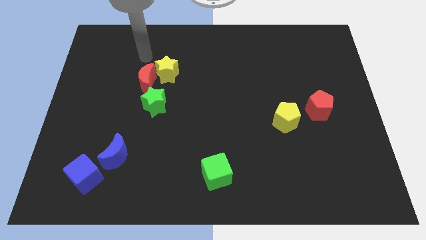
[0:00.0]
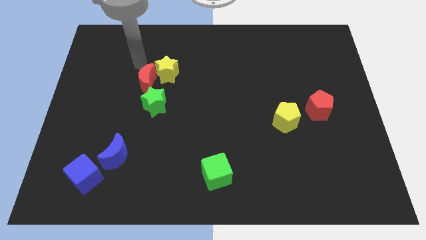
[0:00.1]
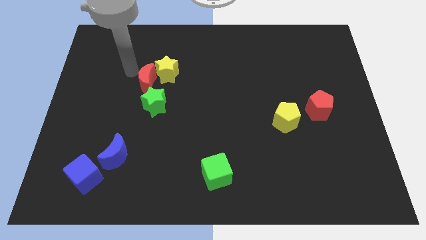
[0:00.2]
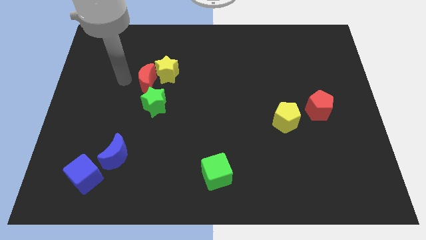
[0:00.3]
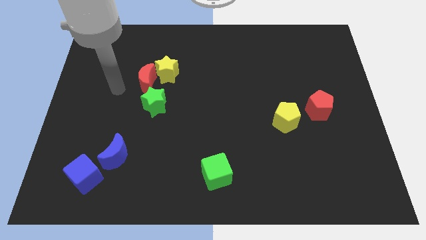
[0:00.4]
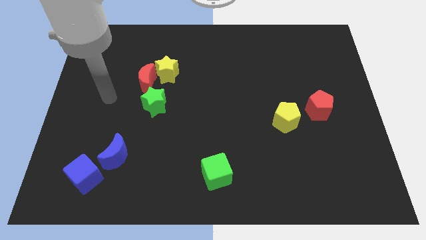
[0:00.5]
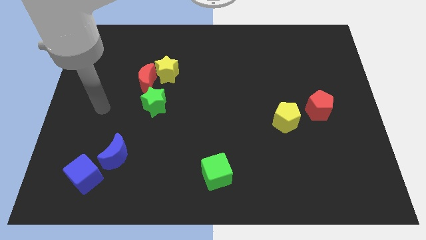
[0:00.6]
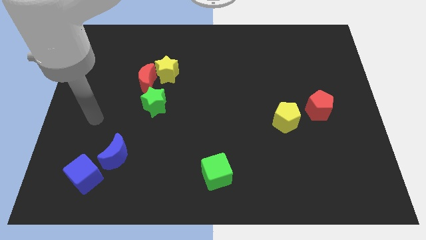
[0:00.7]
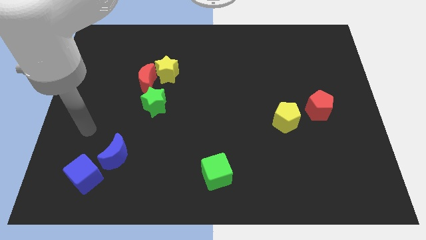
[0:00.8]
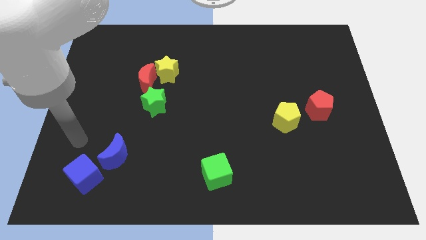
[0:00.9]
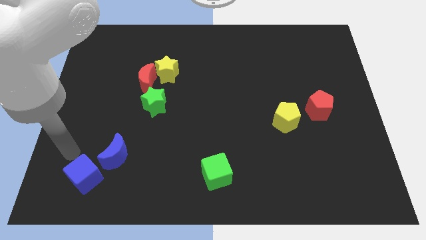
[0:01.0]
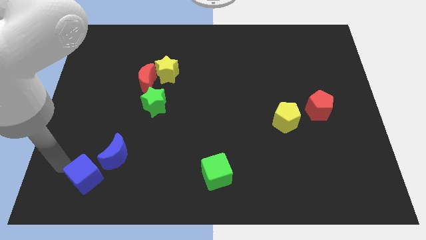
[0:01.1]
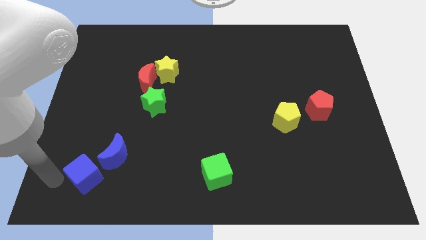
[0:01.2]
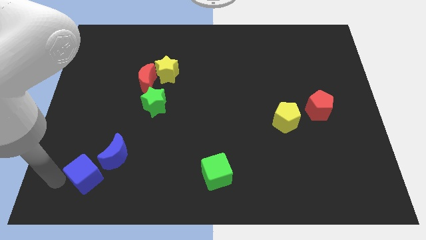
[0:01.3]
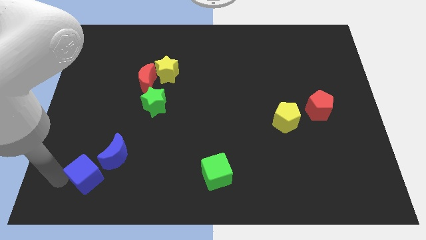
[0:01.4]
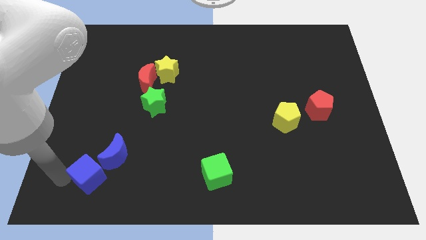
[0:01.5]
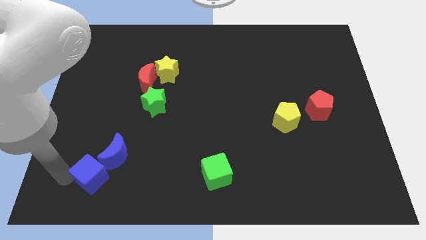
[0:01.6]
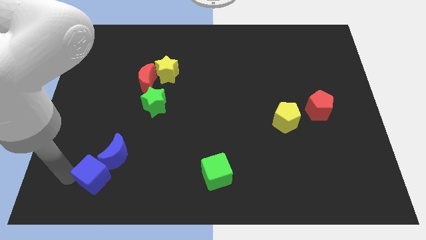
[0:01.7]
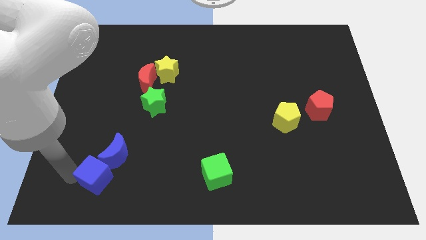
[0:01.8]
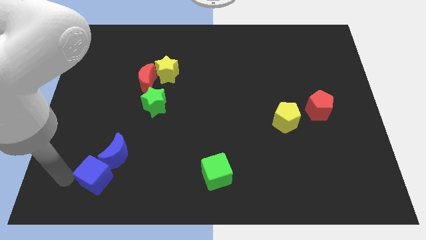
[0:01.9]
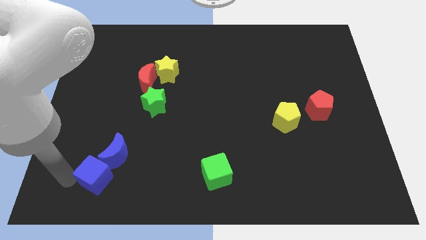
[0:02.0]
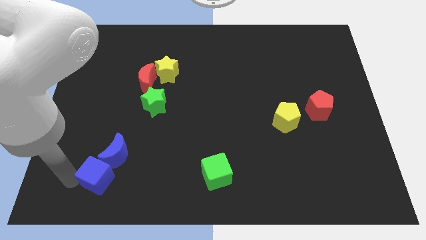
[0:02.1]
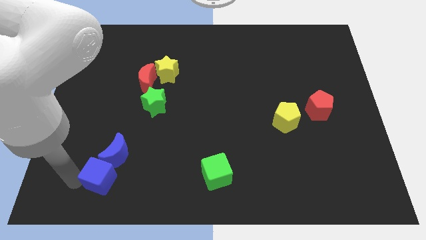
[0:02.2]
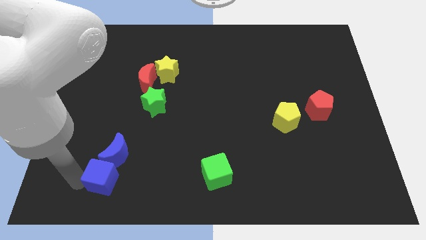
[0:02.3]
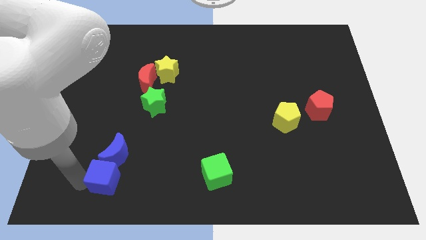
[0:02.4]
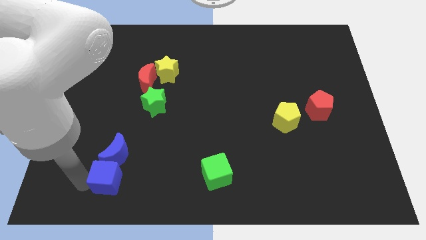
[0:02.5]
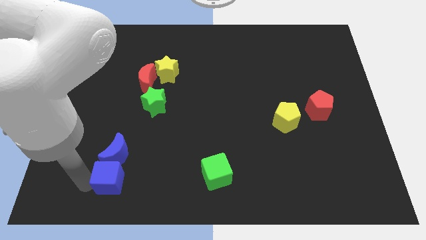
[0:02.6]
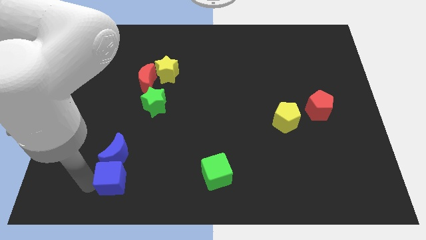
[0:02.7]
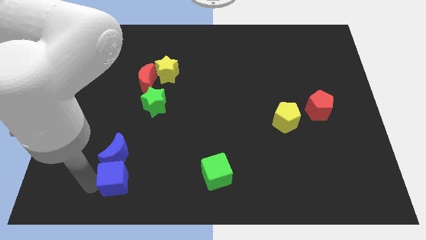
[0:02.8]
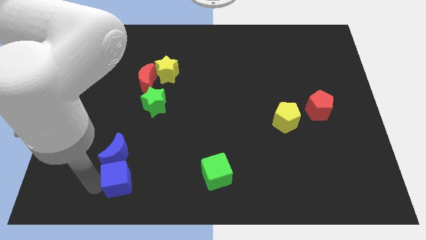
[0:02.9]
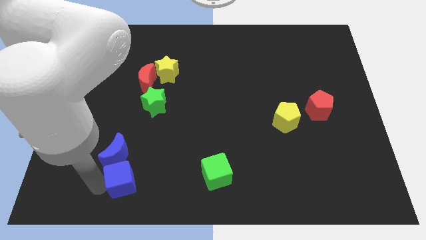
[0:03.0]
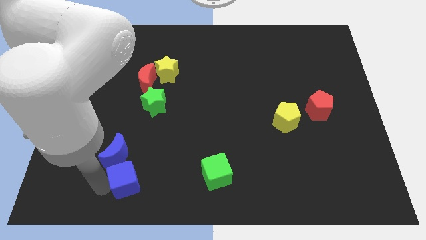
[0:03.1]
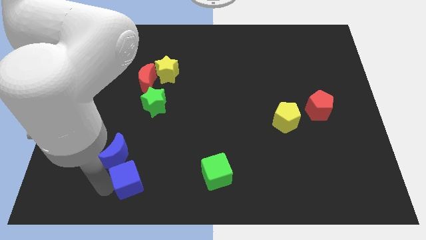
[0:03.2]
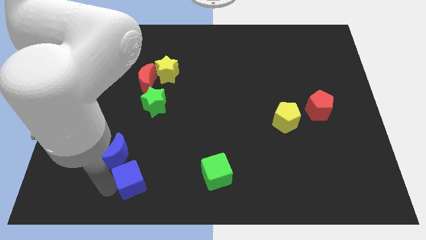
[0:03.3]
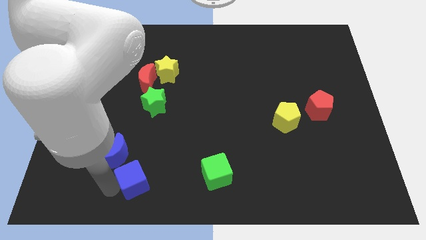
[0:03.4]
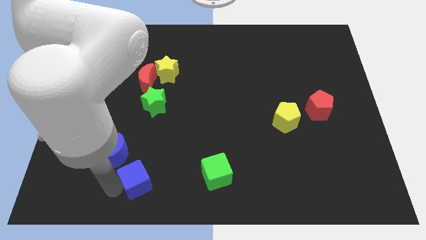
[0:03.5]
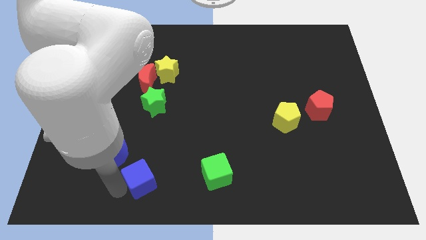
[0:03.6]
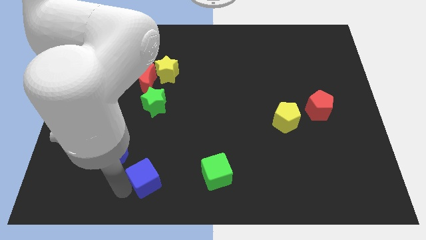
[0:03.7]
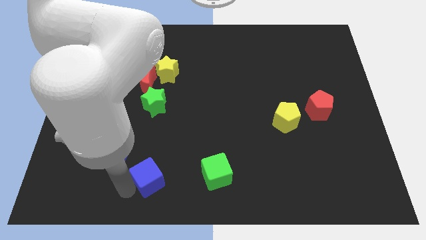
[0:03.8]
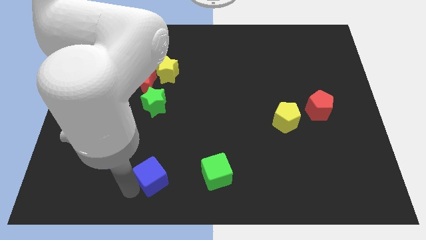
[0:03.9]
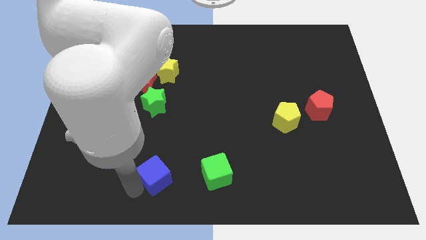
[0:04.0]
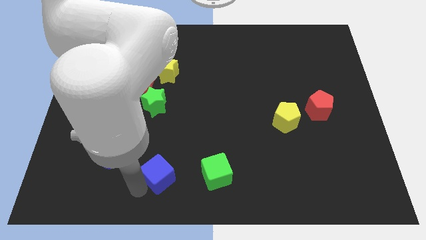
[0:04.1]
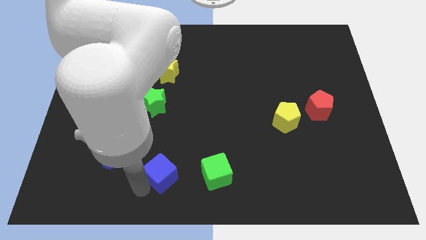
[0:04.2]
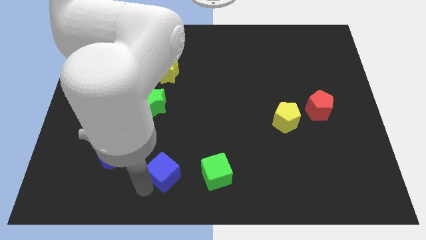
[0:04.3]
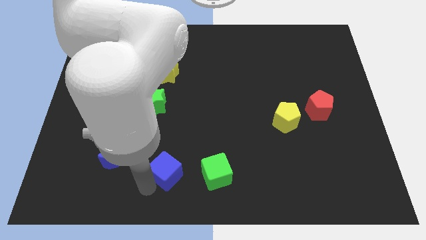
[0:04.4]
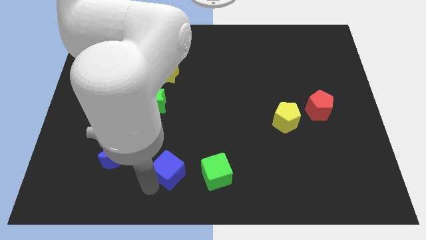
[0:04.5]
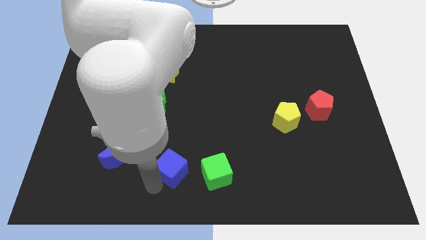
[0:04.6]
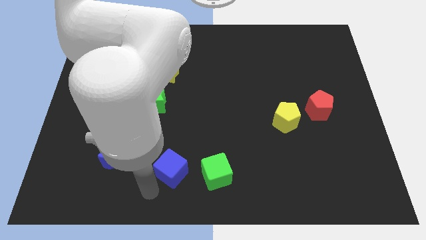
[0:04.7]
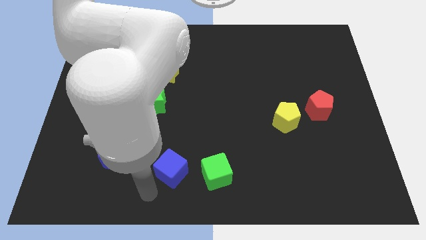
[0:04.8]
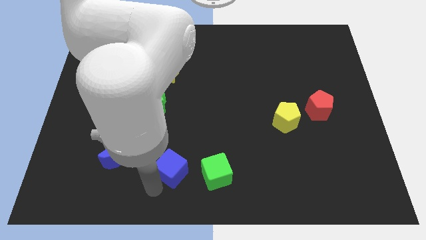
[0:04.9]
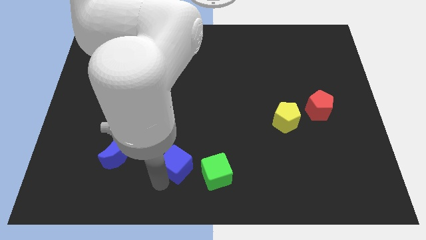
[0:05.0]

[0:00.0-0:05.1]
slide the blue cube diagonally up and to the left of the green cube

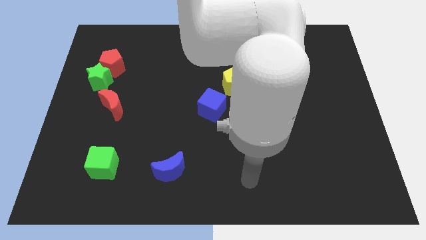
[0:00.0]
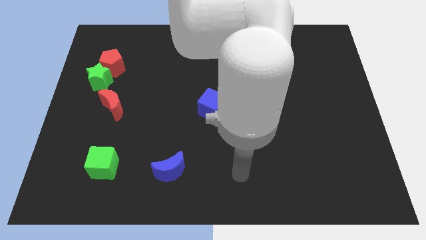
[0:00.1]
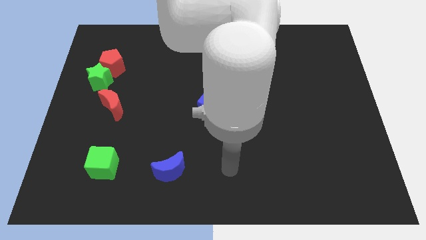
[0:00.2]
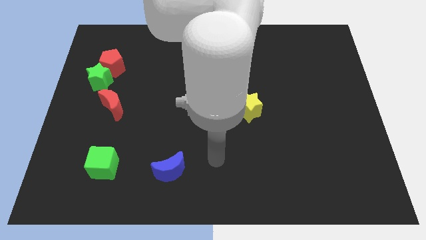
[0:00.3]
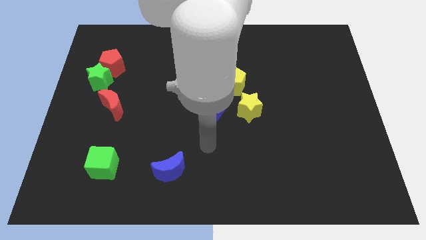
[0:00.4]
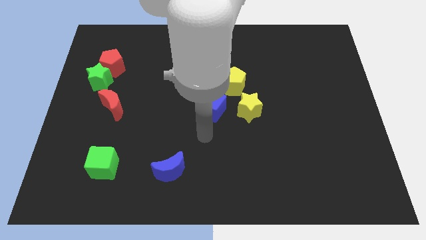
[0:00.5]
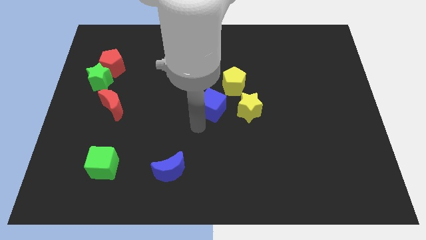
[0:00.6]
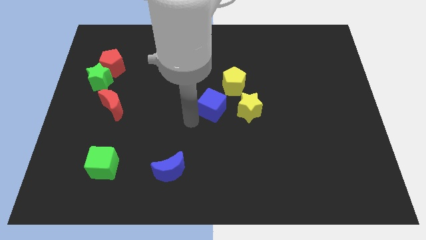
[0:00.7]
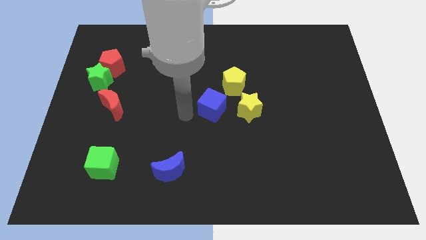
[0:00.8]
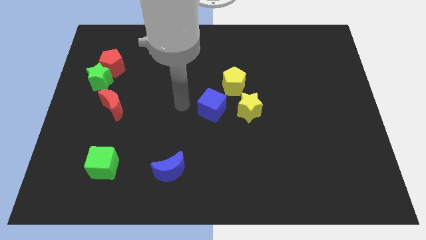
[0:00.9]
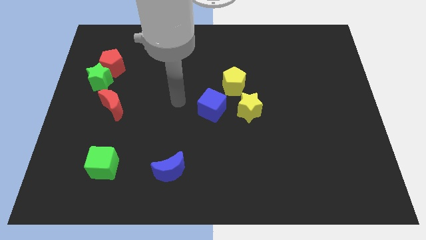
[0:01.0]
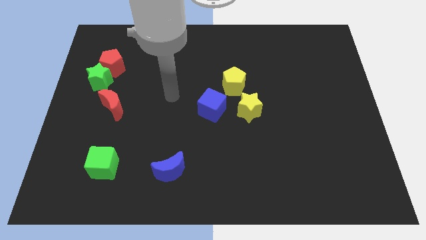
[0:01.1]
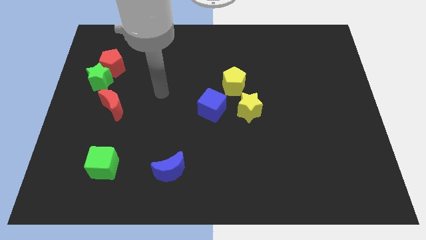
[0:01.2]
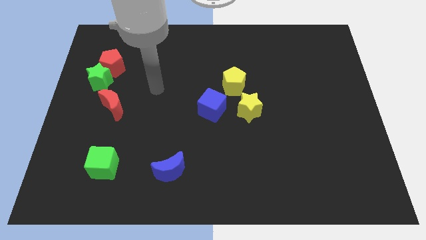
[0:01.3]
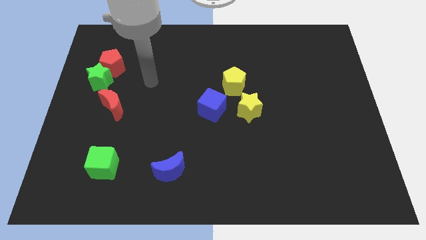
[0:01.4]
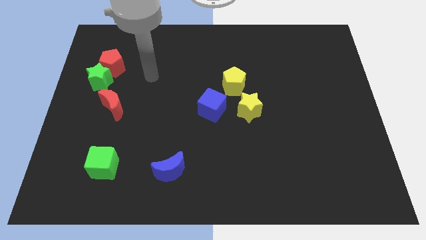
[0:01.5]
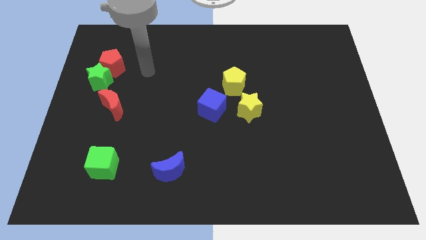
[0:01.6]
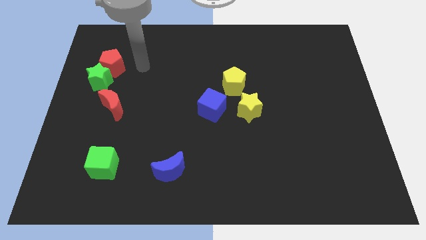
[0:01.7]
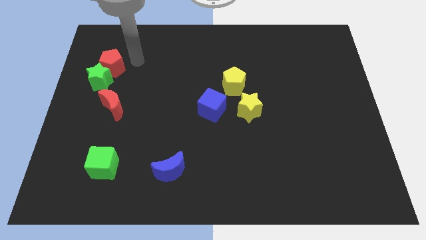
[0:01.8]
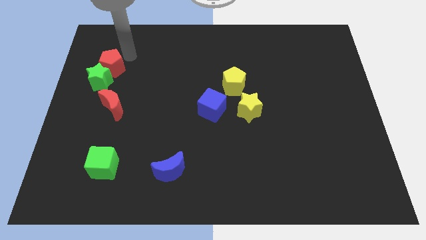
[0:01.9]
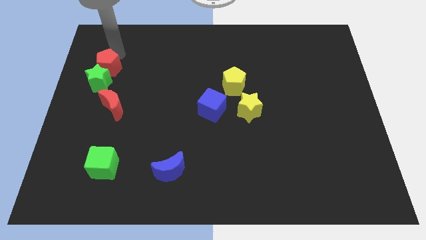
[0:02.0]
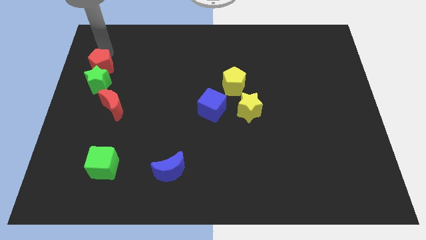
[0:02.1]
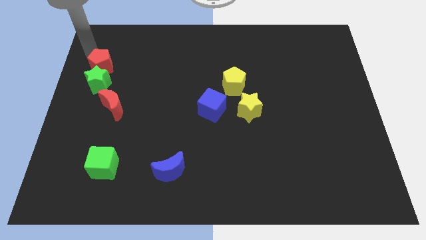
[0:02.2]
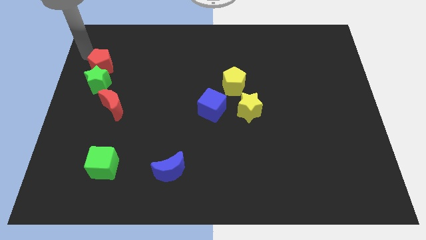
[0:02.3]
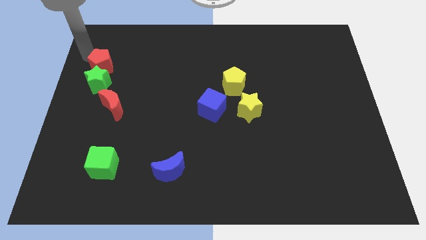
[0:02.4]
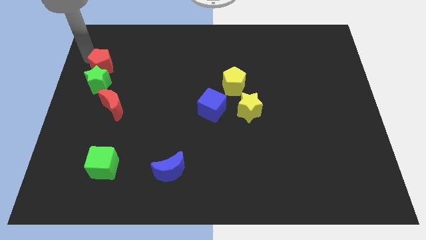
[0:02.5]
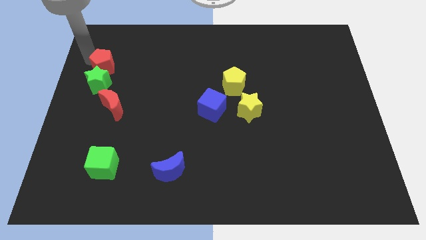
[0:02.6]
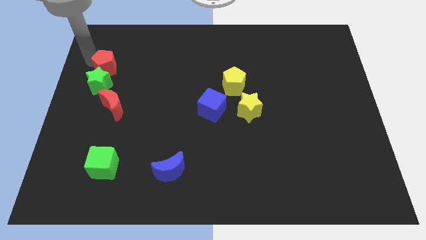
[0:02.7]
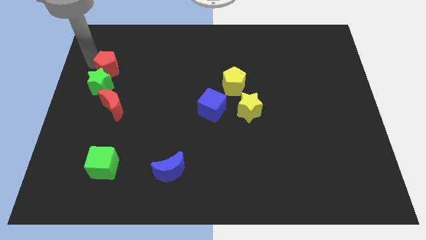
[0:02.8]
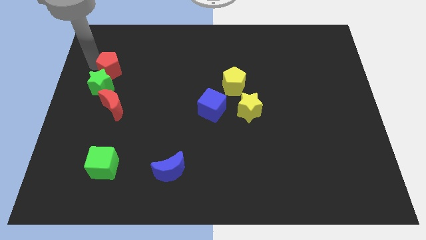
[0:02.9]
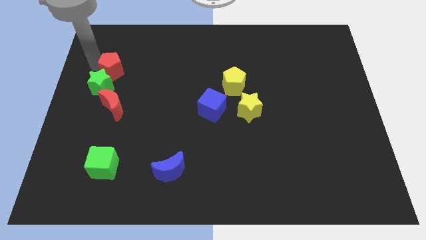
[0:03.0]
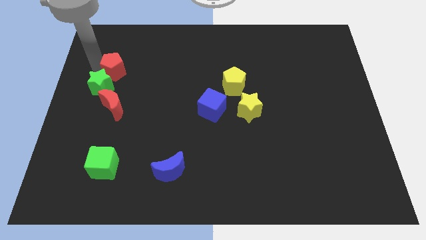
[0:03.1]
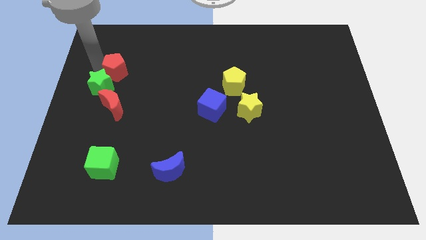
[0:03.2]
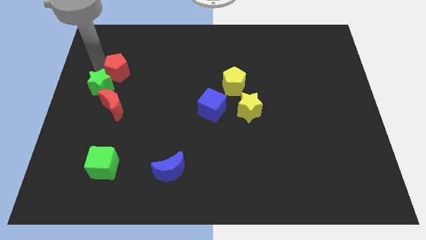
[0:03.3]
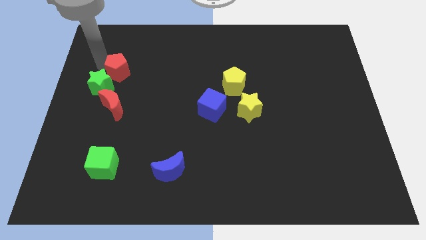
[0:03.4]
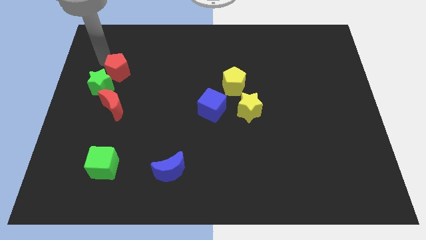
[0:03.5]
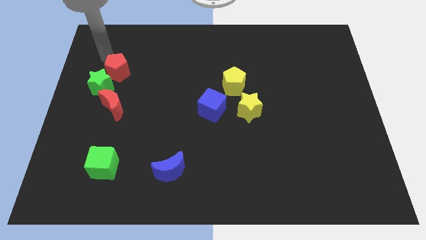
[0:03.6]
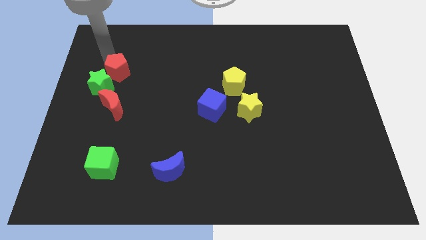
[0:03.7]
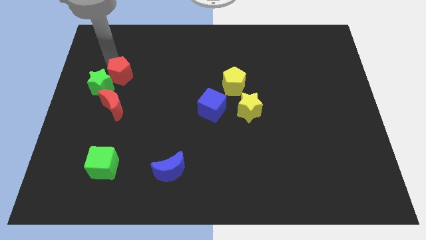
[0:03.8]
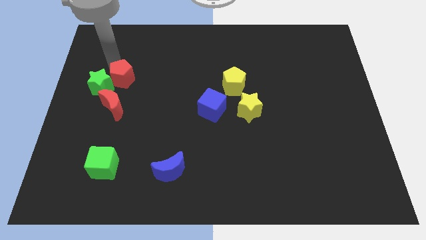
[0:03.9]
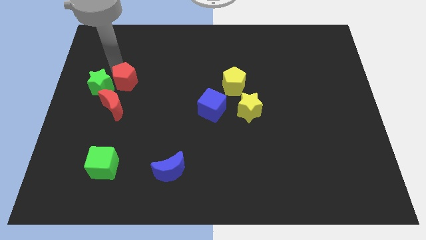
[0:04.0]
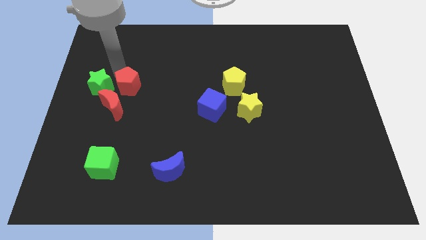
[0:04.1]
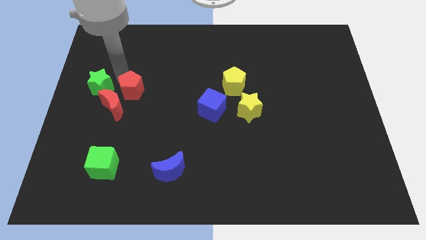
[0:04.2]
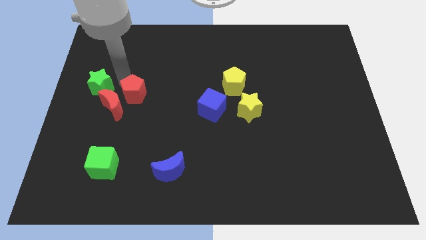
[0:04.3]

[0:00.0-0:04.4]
move the red pentagon to the right side of the red moon
